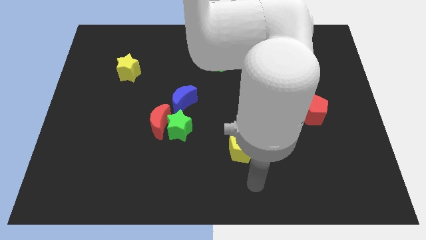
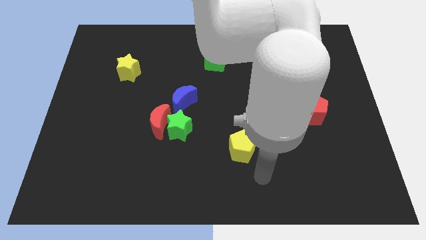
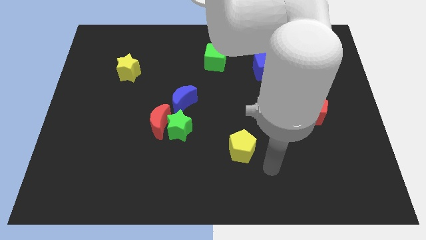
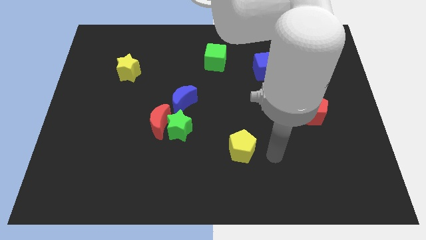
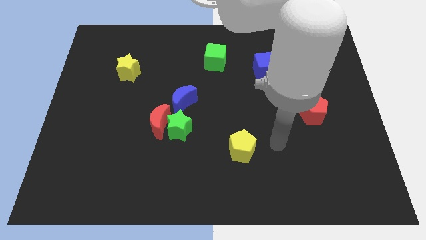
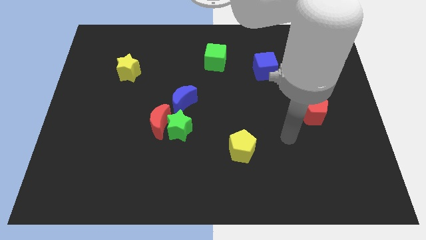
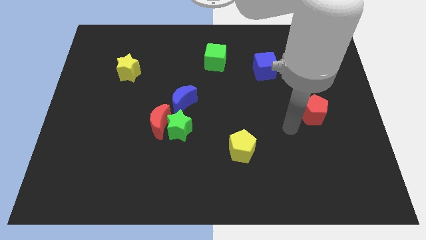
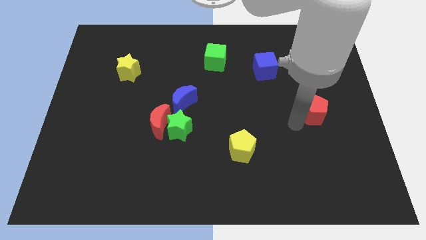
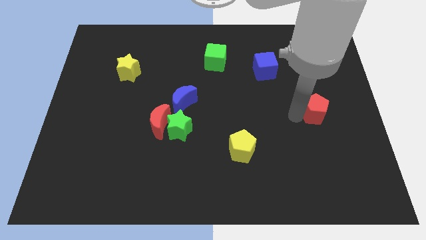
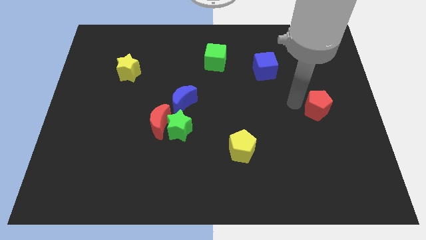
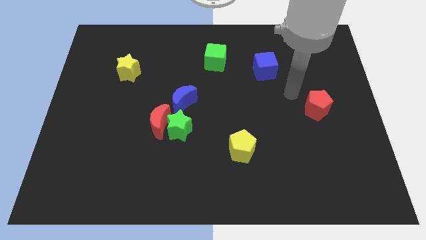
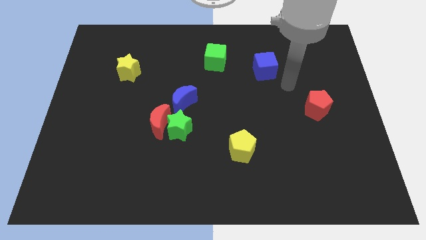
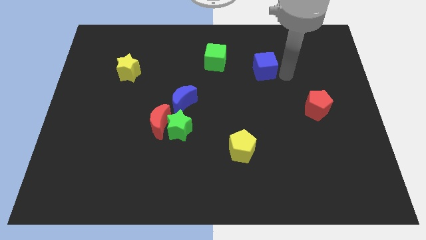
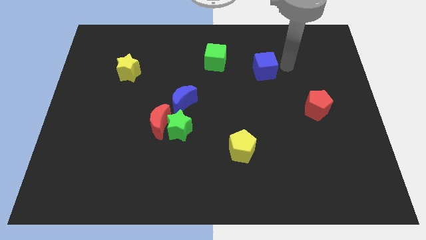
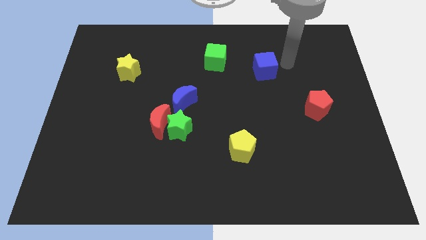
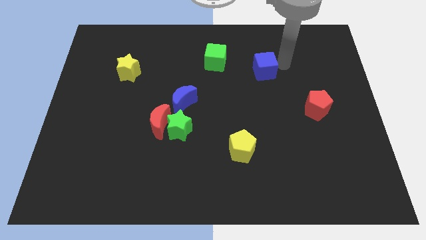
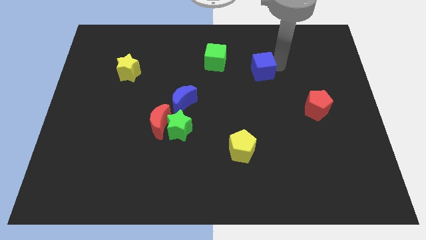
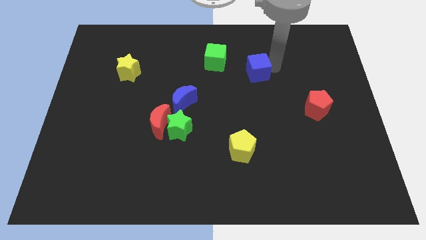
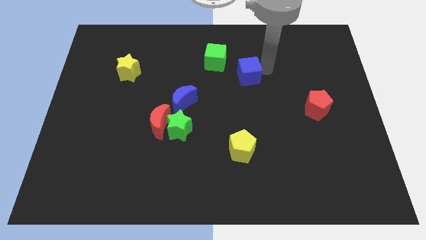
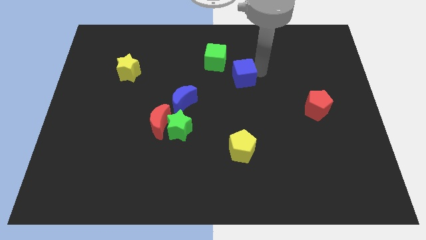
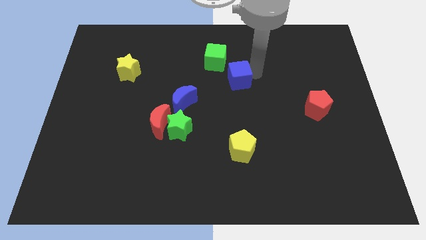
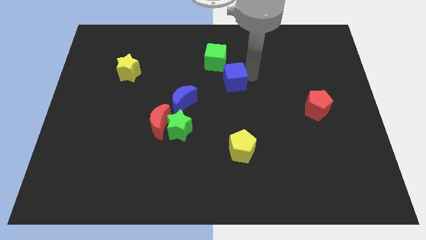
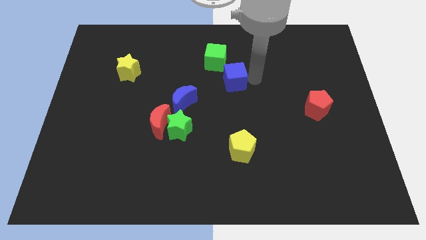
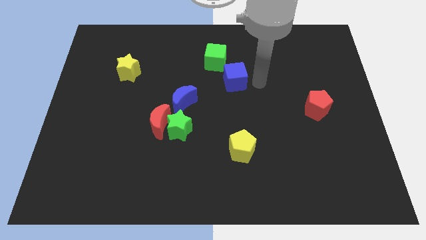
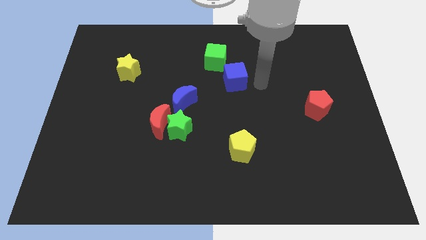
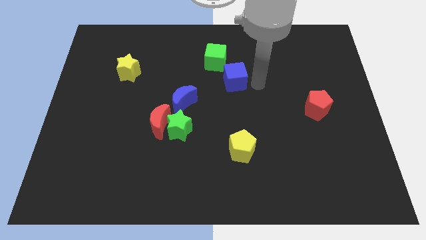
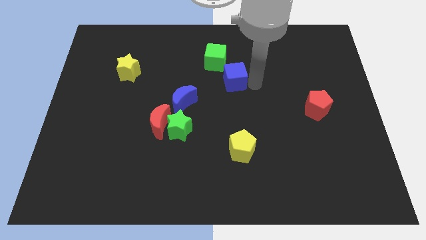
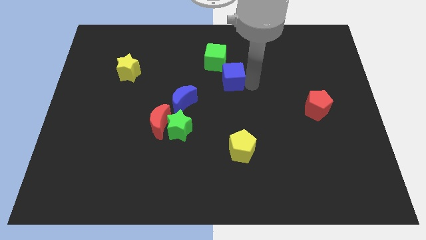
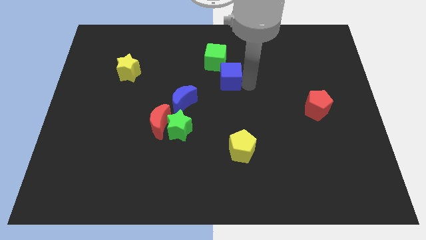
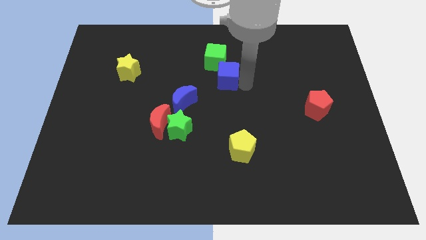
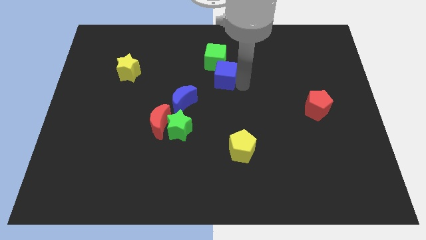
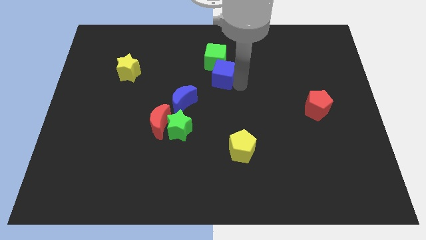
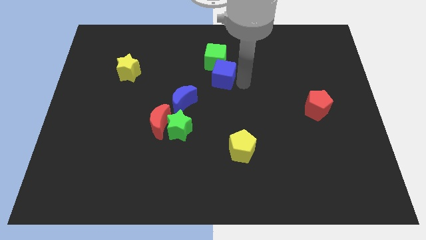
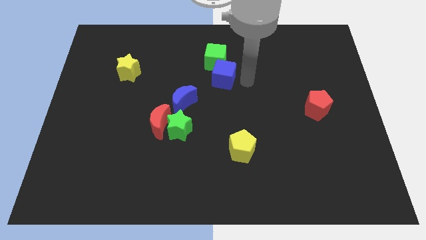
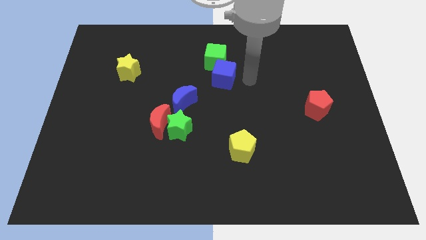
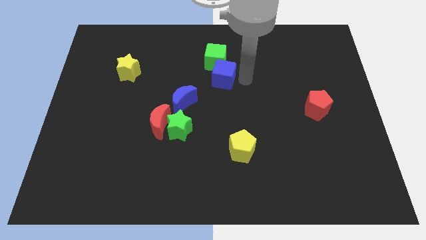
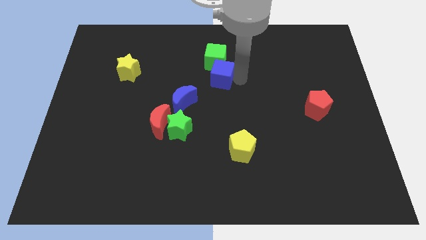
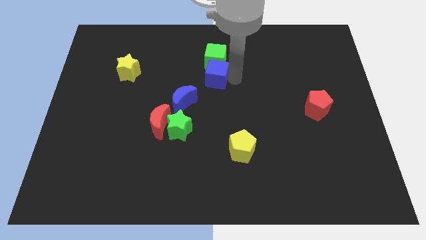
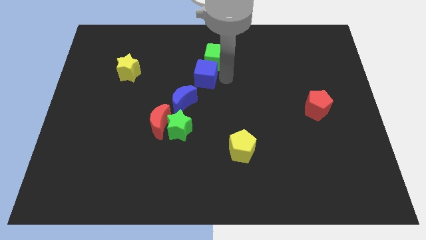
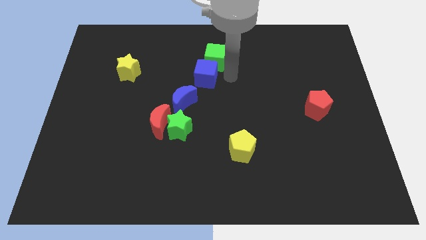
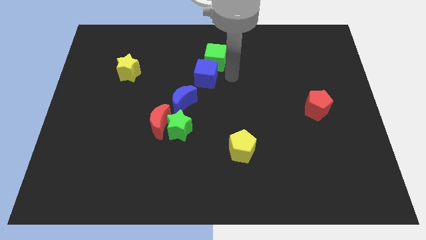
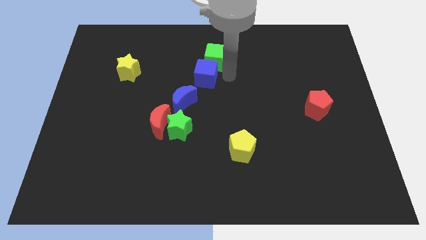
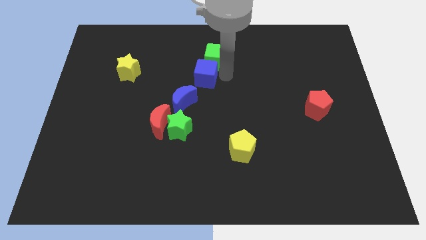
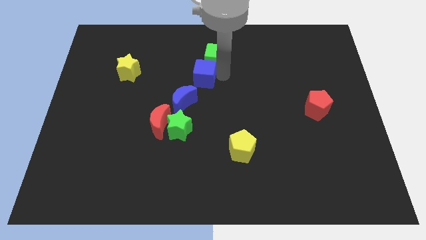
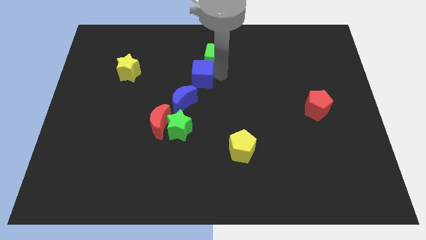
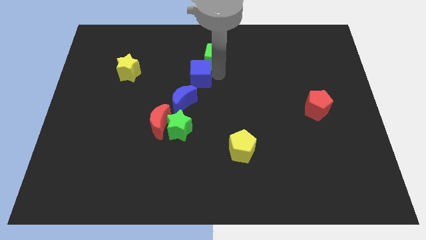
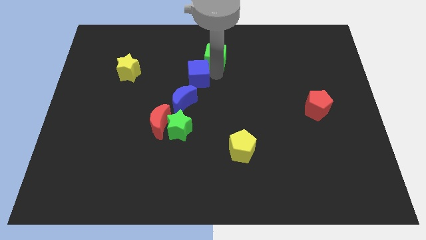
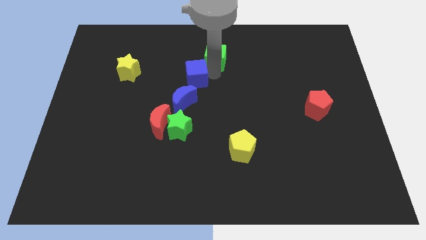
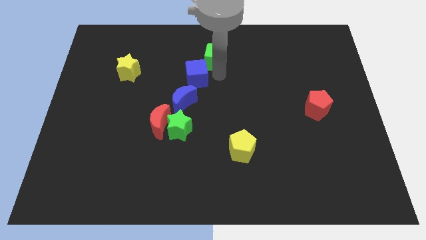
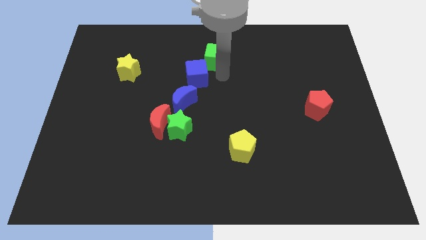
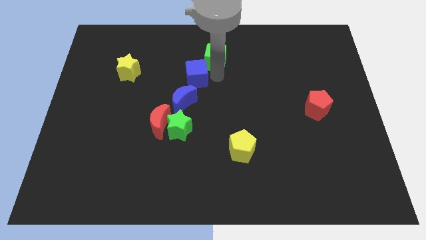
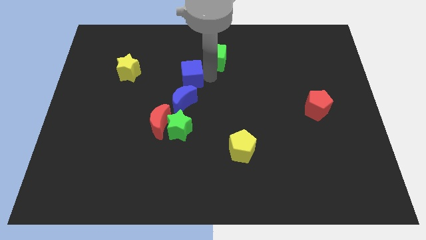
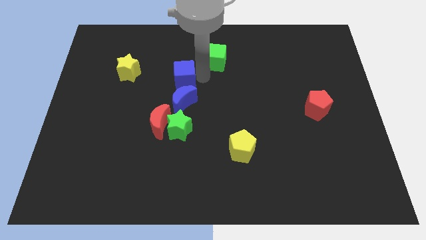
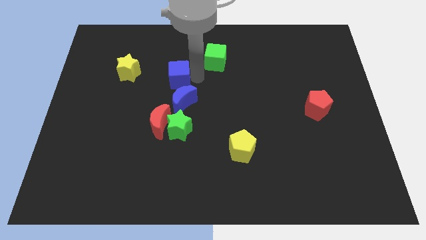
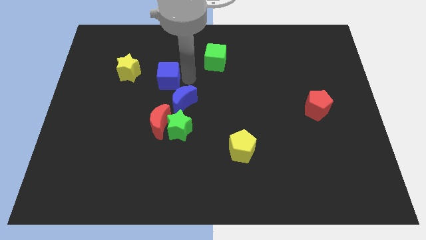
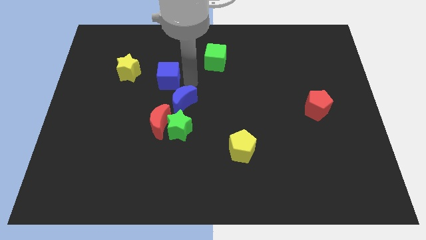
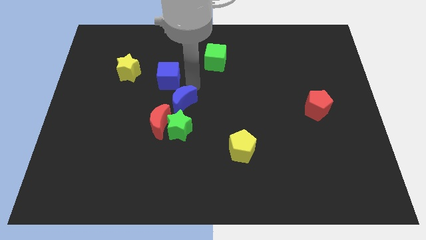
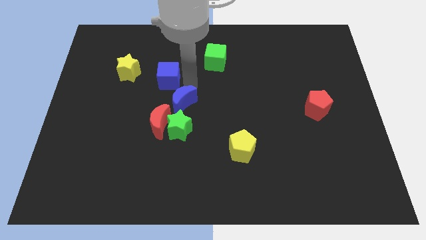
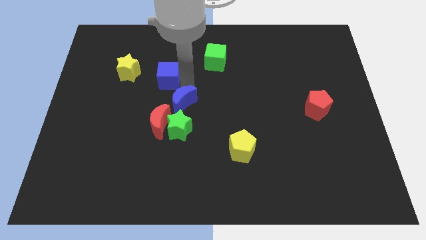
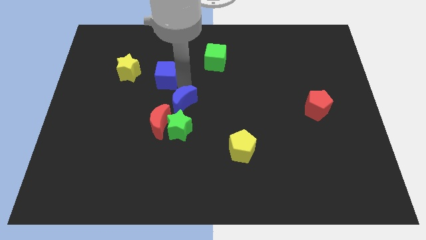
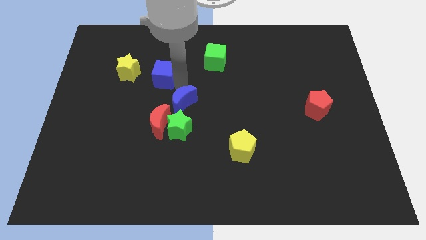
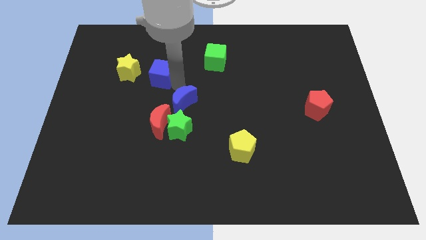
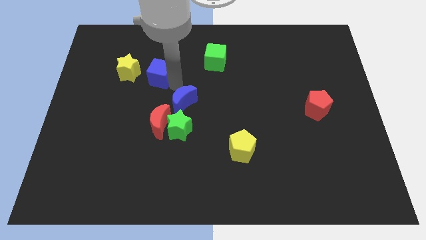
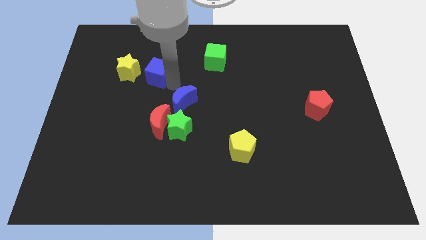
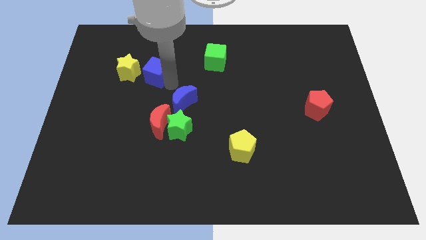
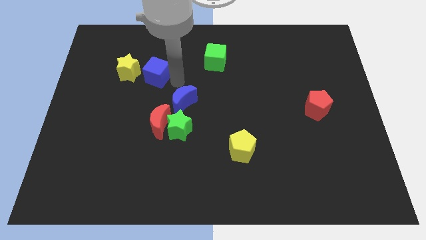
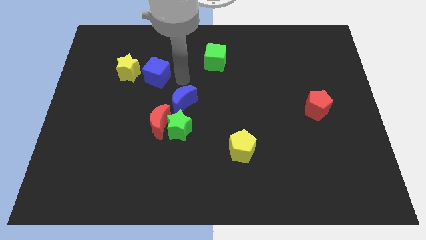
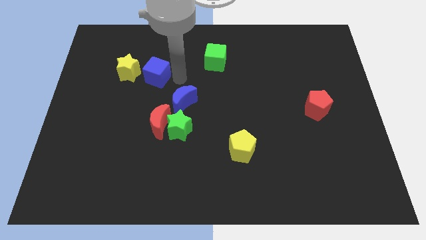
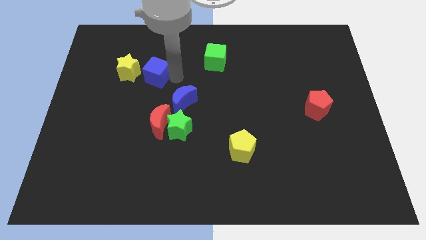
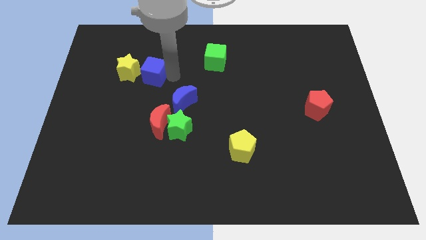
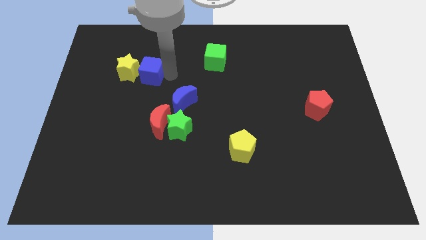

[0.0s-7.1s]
move the blue cube to the yellow star

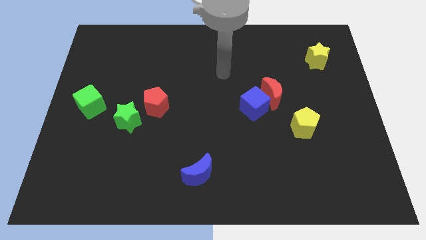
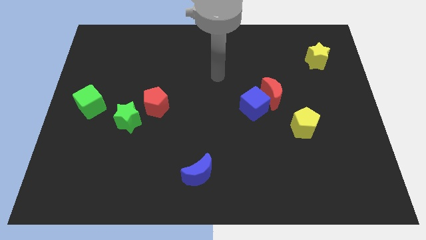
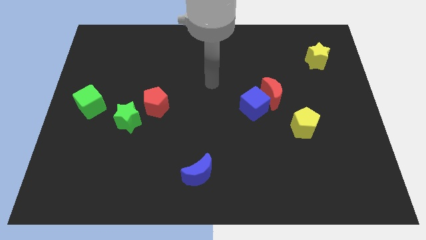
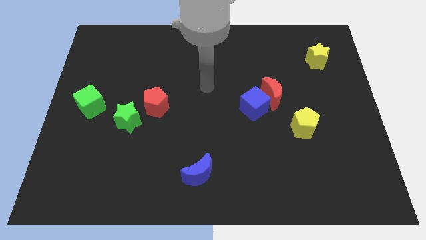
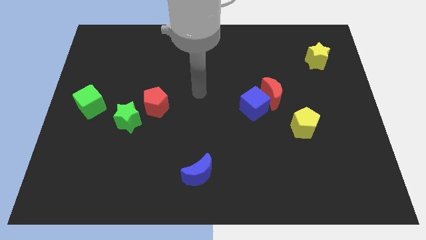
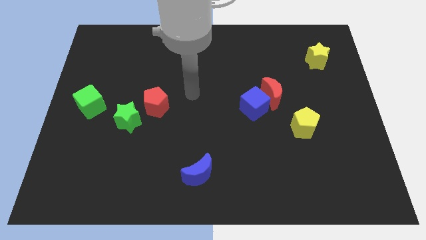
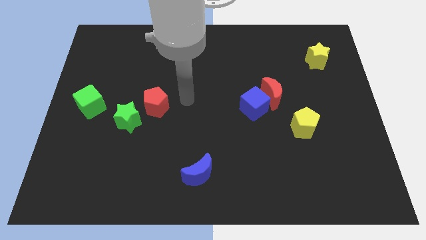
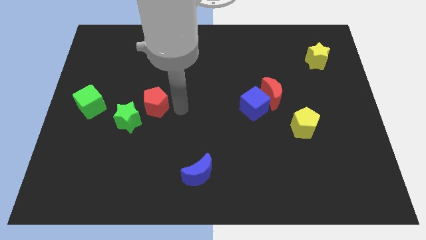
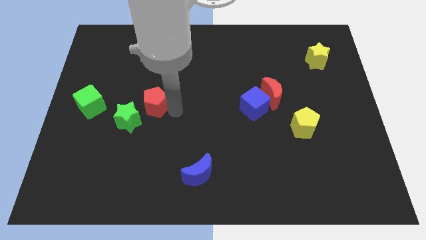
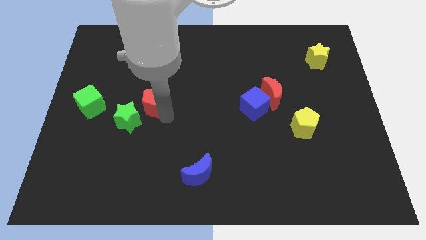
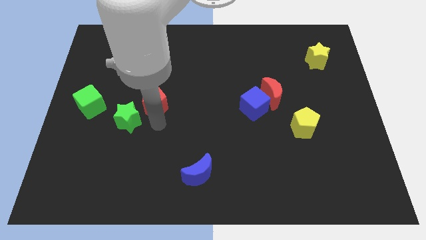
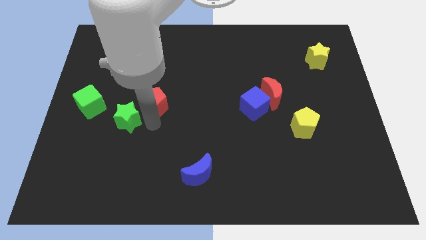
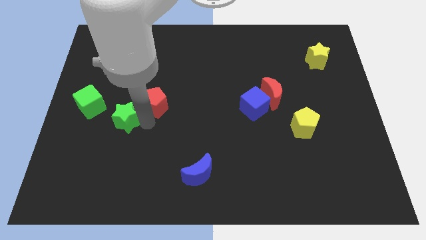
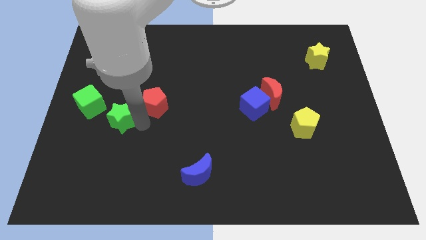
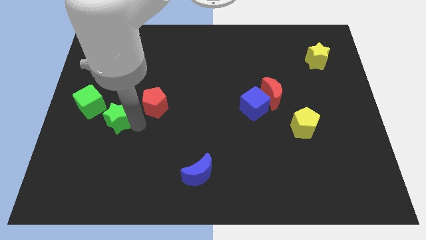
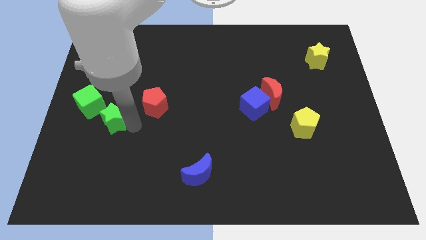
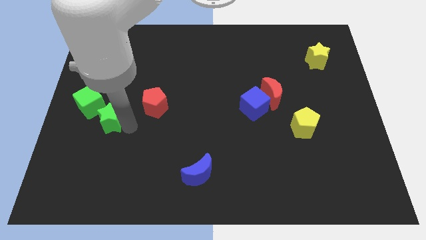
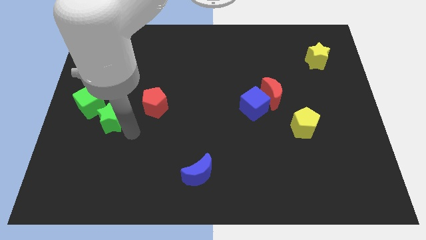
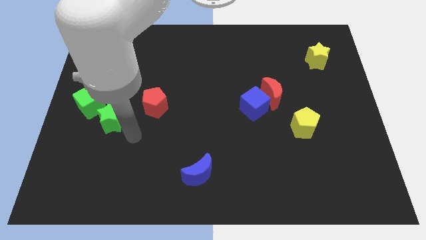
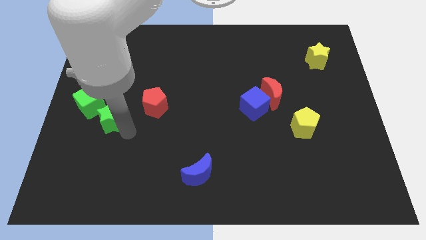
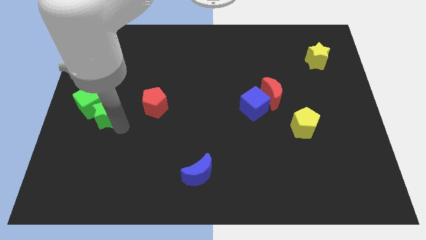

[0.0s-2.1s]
move the green star to the green cube
